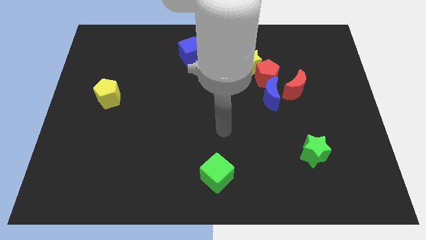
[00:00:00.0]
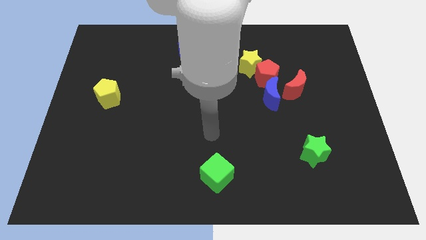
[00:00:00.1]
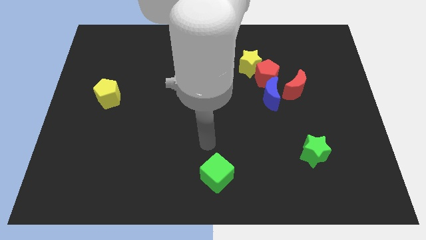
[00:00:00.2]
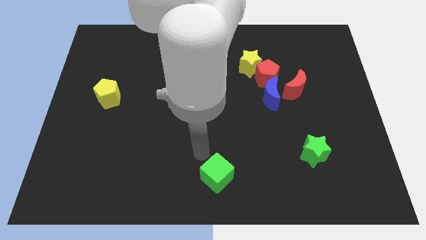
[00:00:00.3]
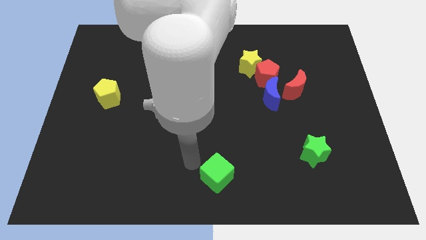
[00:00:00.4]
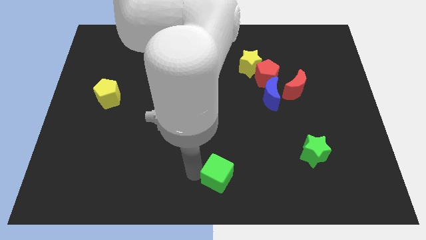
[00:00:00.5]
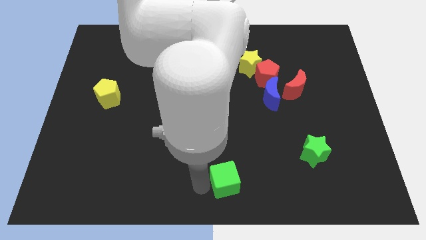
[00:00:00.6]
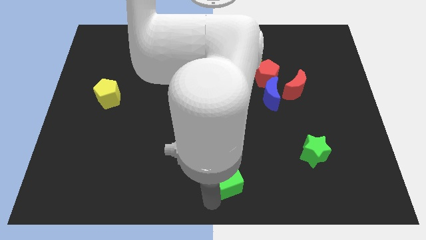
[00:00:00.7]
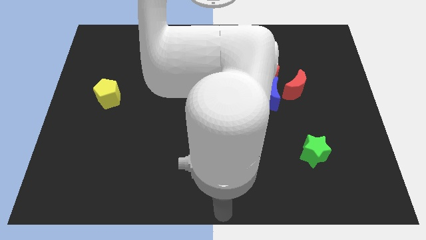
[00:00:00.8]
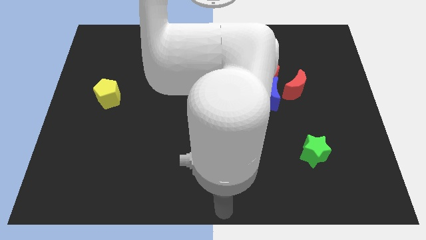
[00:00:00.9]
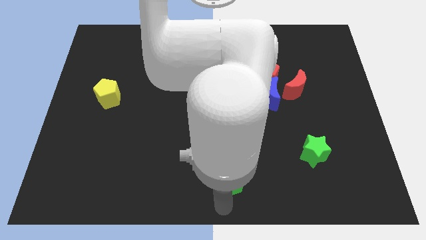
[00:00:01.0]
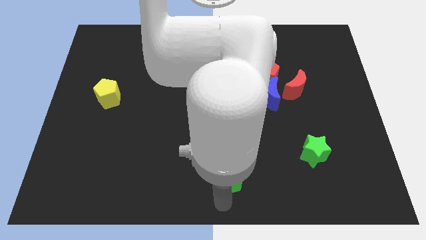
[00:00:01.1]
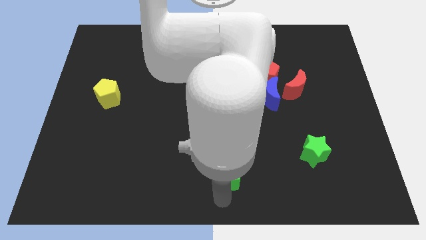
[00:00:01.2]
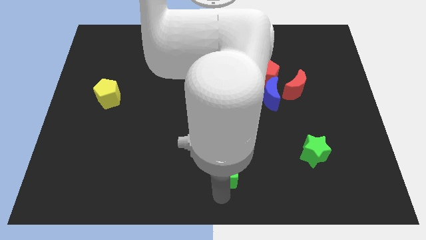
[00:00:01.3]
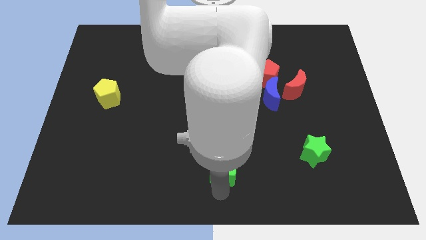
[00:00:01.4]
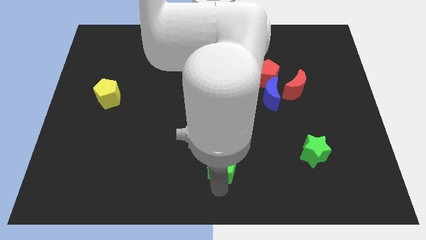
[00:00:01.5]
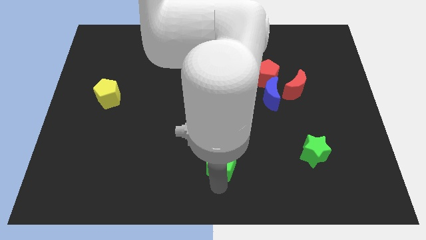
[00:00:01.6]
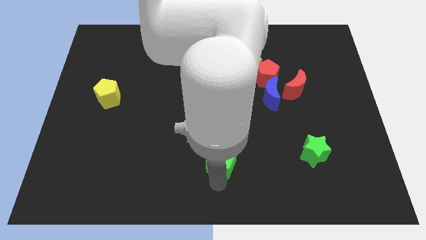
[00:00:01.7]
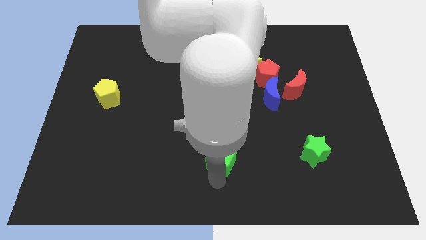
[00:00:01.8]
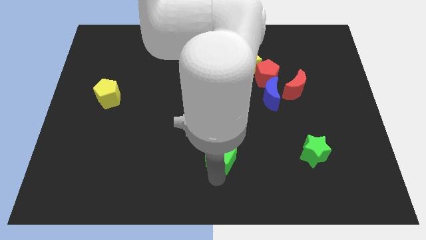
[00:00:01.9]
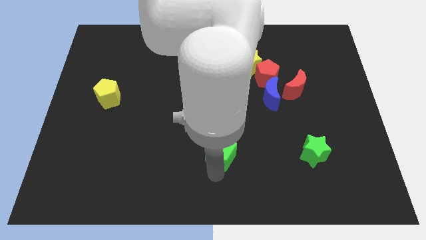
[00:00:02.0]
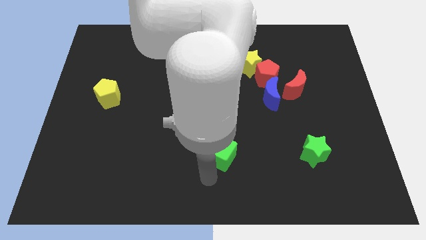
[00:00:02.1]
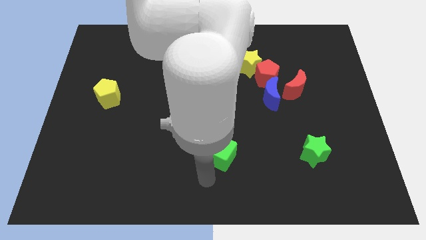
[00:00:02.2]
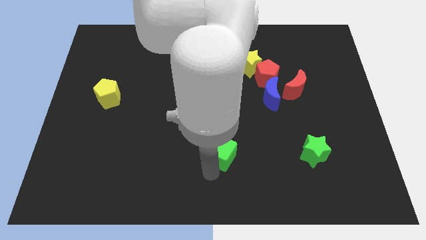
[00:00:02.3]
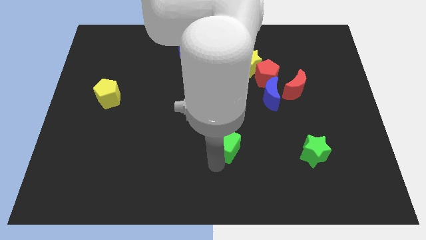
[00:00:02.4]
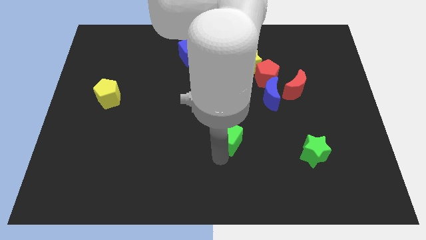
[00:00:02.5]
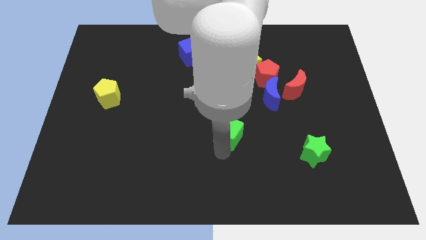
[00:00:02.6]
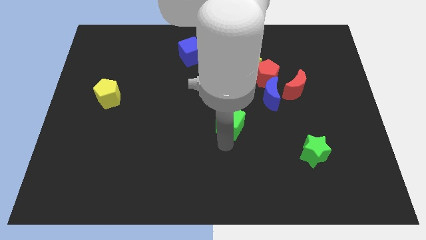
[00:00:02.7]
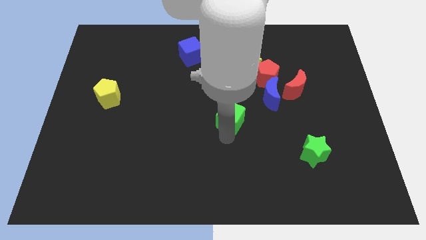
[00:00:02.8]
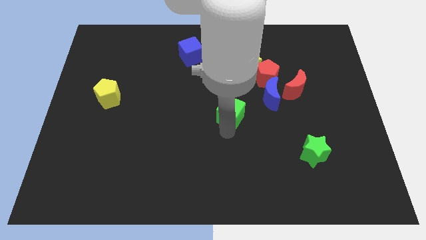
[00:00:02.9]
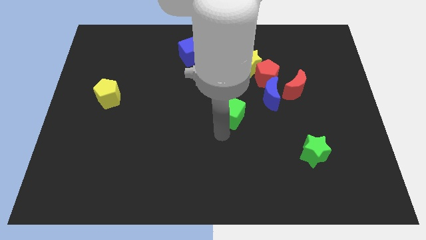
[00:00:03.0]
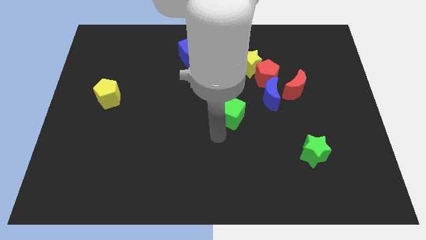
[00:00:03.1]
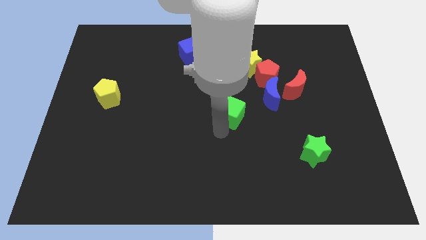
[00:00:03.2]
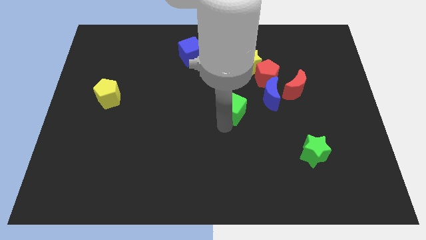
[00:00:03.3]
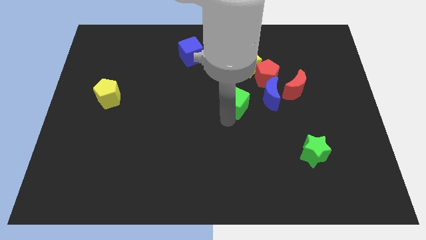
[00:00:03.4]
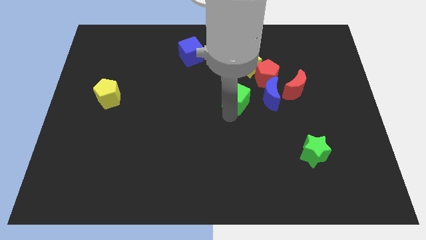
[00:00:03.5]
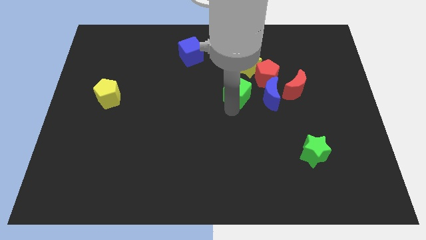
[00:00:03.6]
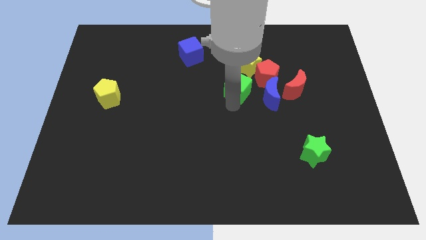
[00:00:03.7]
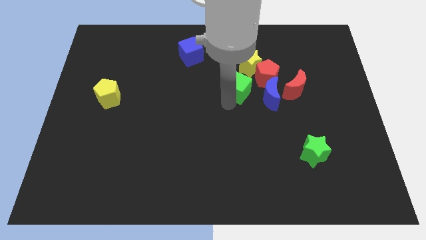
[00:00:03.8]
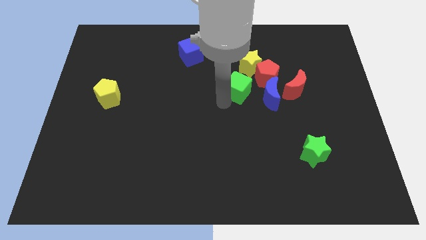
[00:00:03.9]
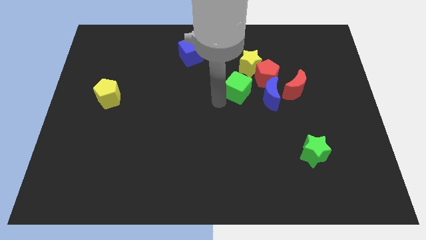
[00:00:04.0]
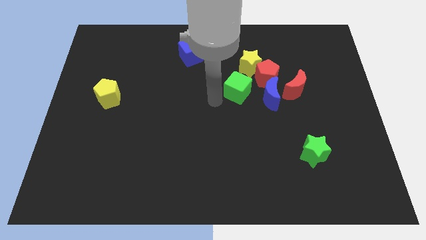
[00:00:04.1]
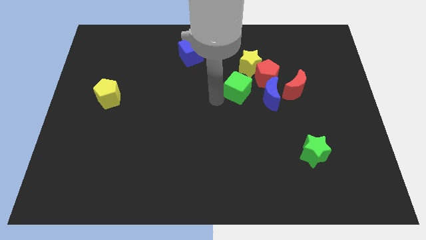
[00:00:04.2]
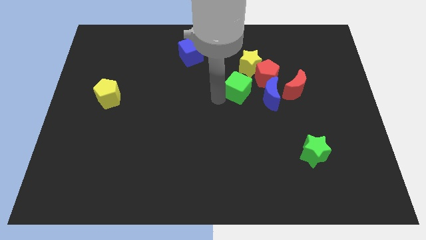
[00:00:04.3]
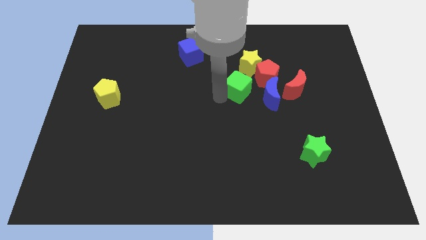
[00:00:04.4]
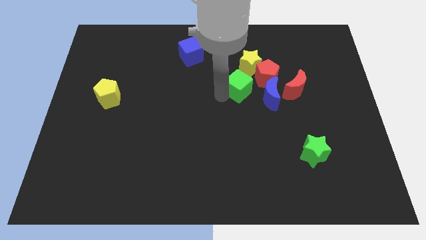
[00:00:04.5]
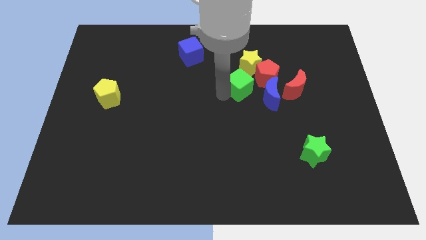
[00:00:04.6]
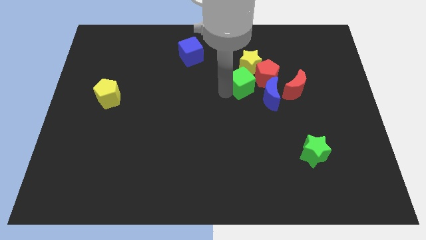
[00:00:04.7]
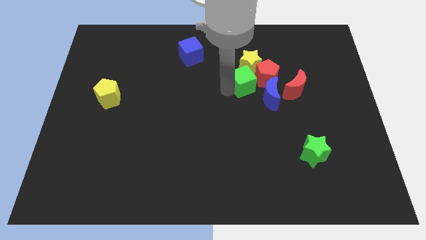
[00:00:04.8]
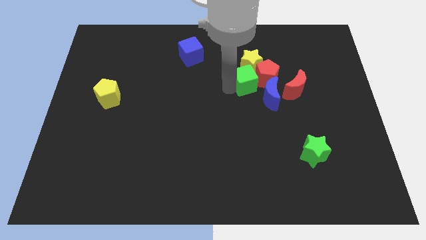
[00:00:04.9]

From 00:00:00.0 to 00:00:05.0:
push the green cube next to the red pentagon

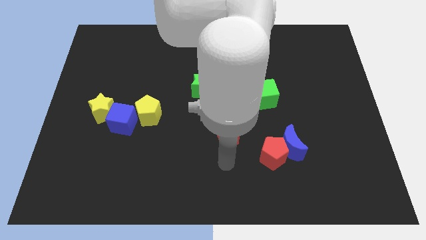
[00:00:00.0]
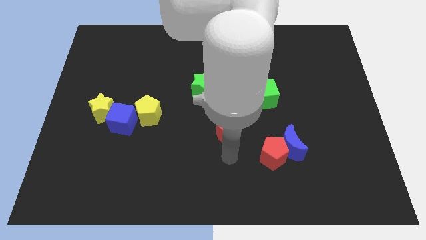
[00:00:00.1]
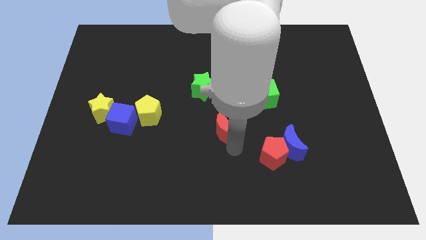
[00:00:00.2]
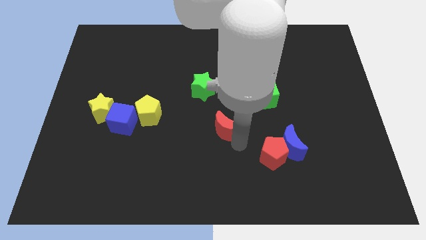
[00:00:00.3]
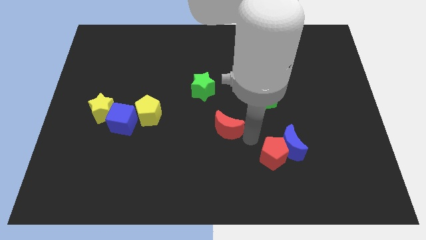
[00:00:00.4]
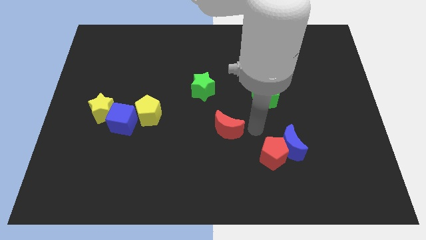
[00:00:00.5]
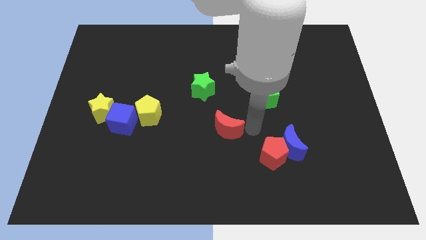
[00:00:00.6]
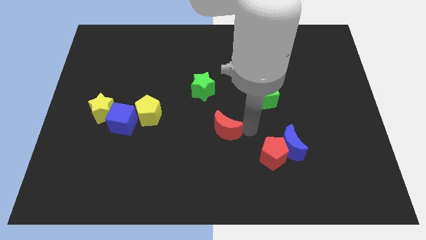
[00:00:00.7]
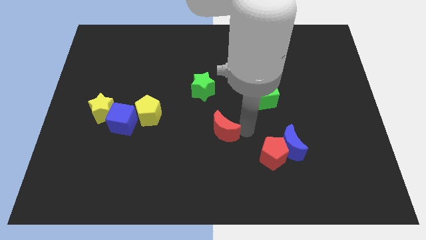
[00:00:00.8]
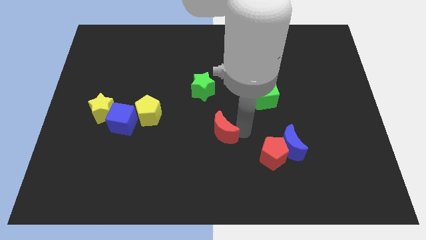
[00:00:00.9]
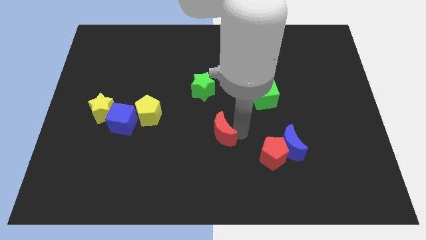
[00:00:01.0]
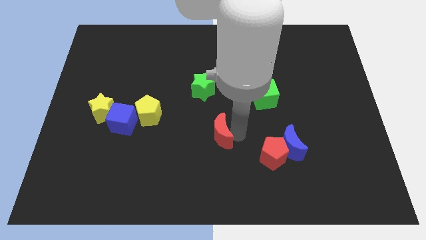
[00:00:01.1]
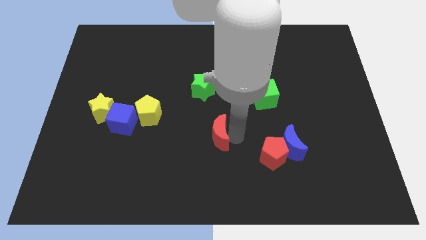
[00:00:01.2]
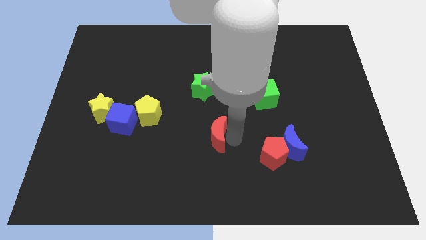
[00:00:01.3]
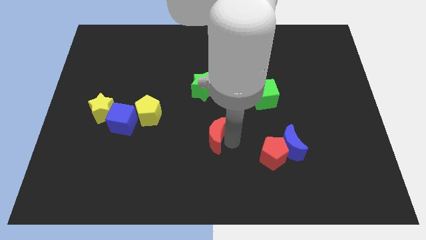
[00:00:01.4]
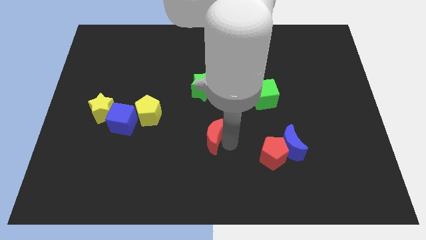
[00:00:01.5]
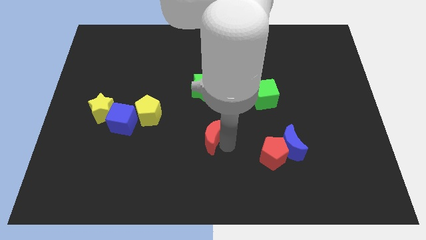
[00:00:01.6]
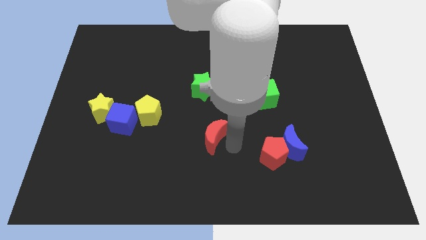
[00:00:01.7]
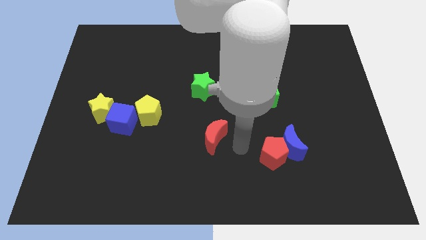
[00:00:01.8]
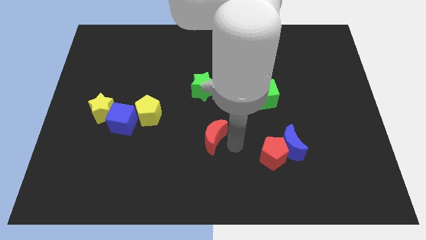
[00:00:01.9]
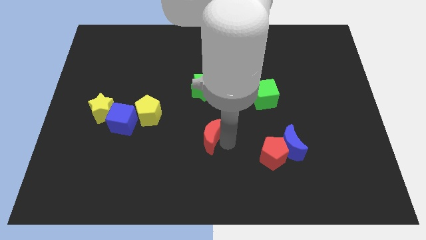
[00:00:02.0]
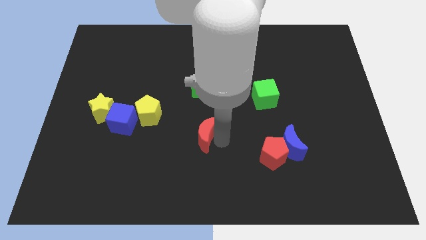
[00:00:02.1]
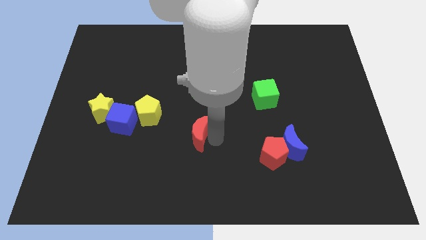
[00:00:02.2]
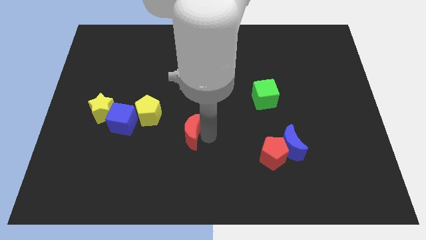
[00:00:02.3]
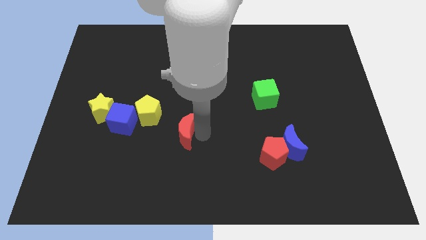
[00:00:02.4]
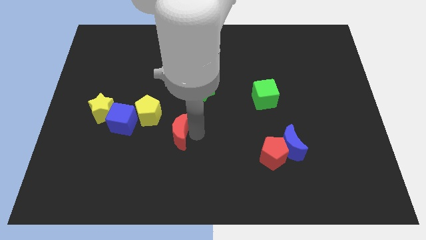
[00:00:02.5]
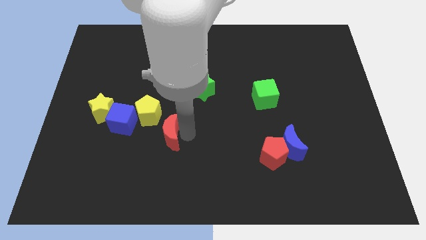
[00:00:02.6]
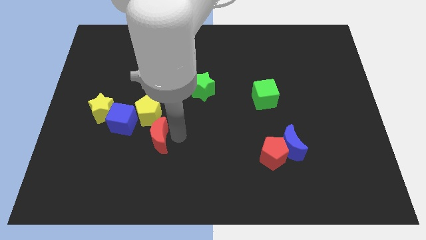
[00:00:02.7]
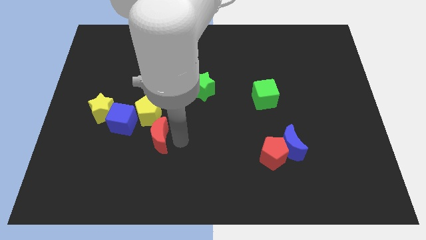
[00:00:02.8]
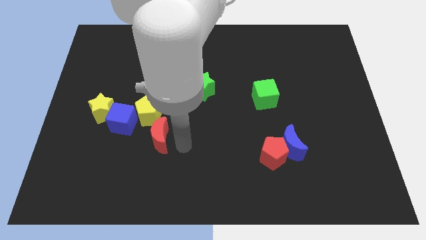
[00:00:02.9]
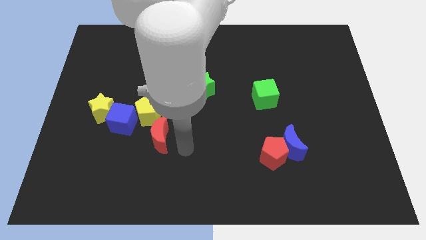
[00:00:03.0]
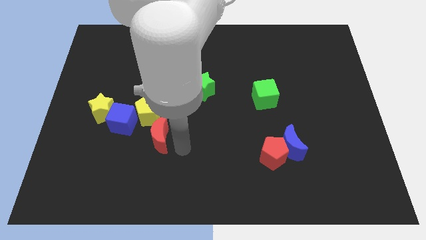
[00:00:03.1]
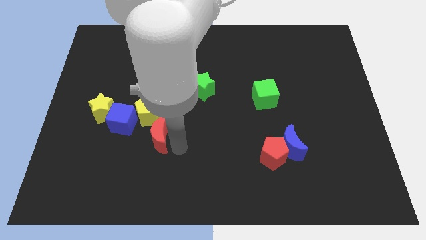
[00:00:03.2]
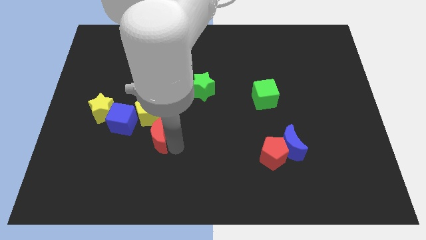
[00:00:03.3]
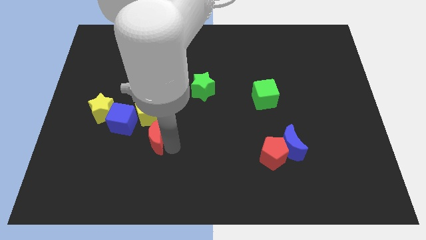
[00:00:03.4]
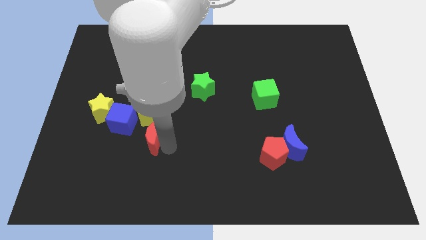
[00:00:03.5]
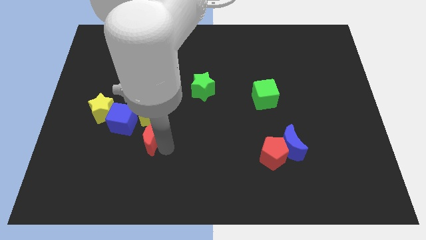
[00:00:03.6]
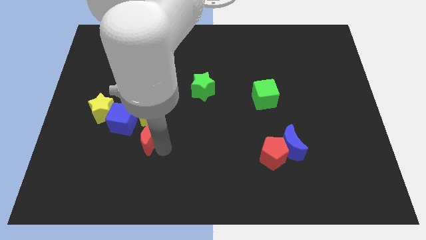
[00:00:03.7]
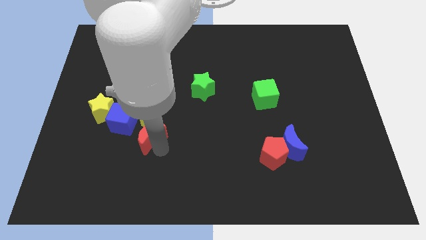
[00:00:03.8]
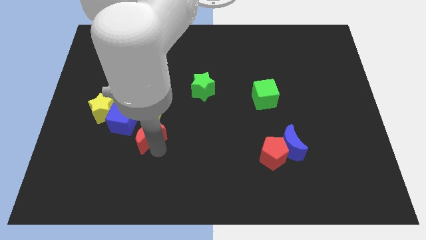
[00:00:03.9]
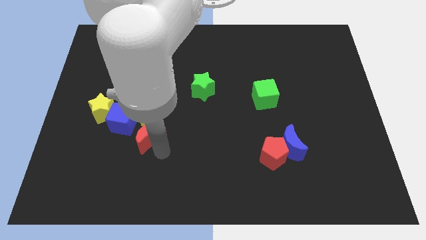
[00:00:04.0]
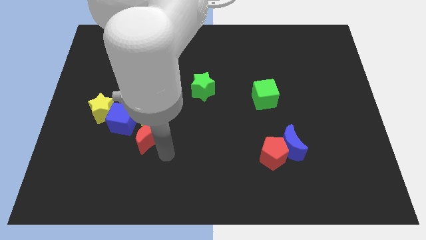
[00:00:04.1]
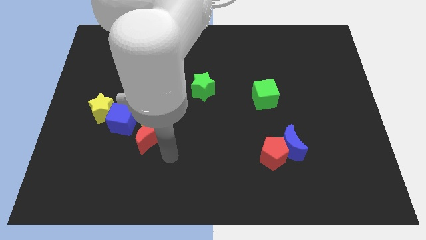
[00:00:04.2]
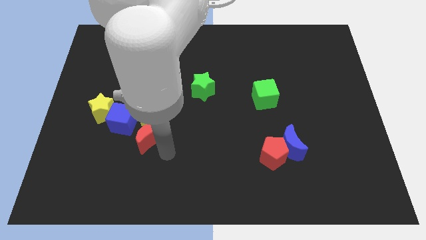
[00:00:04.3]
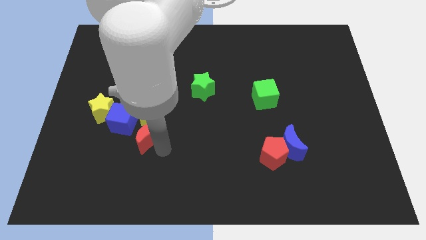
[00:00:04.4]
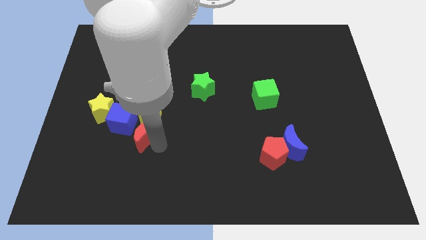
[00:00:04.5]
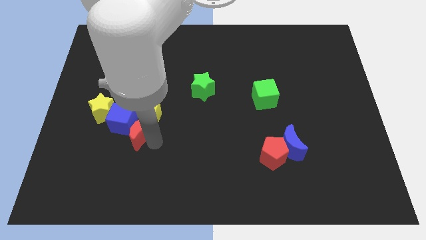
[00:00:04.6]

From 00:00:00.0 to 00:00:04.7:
put the red moon to the blue cube
